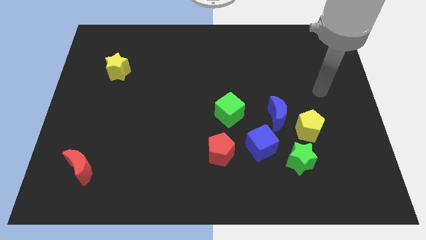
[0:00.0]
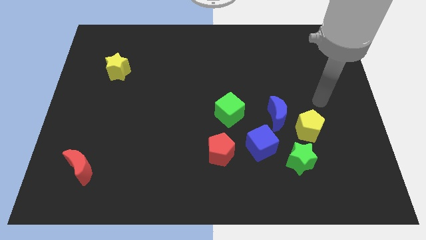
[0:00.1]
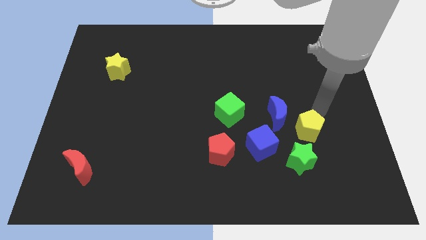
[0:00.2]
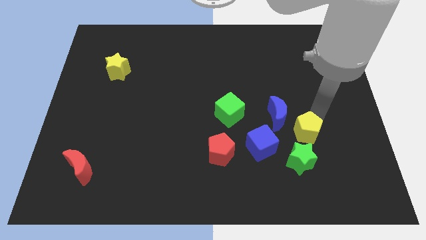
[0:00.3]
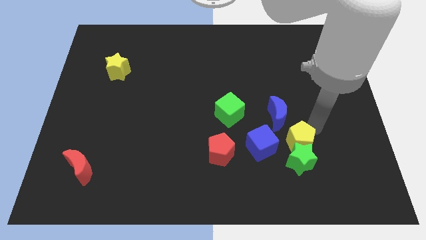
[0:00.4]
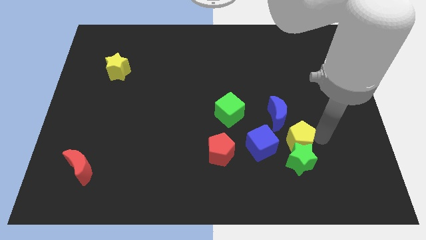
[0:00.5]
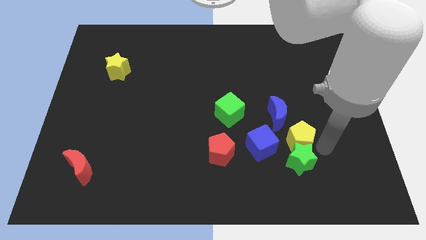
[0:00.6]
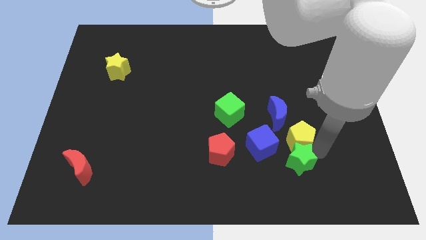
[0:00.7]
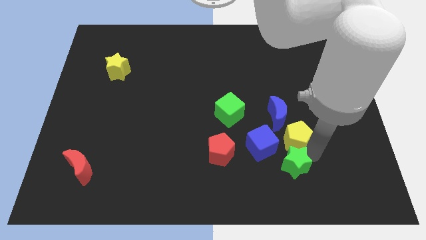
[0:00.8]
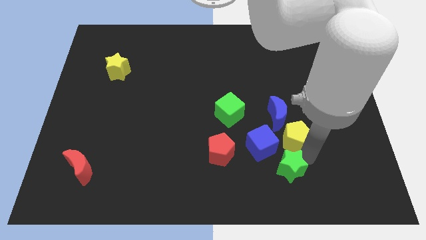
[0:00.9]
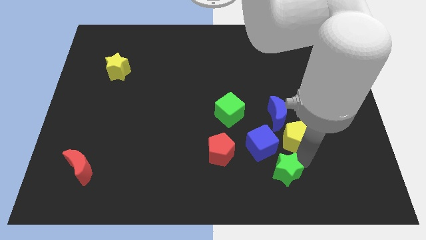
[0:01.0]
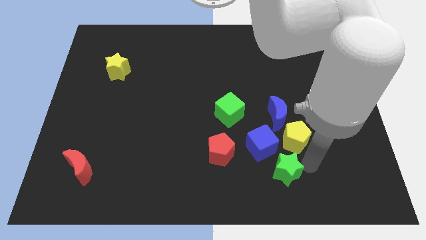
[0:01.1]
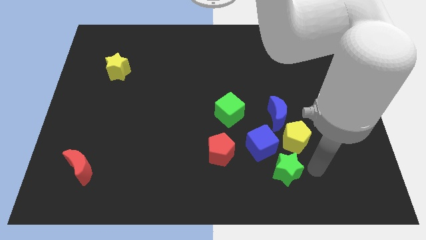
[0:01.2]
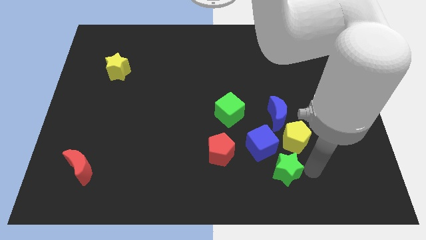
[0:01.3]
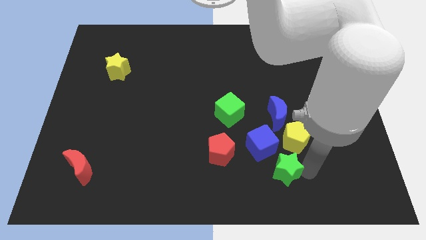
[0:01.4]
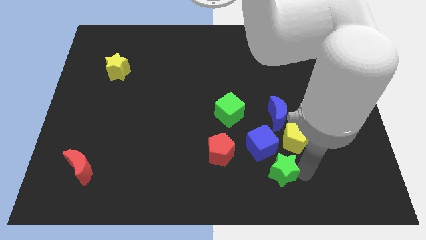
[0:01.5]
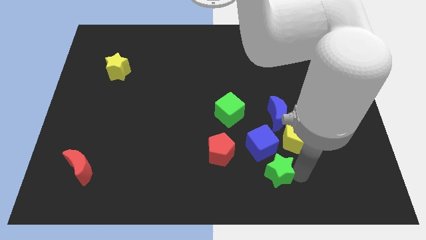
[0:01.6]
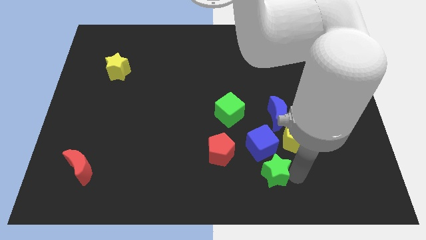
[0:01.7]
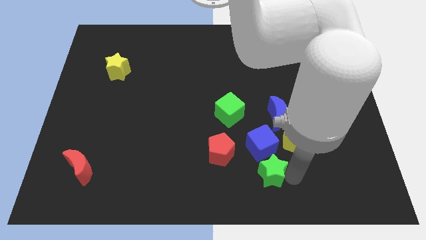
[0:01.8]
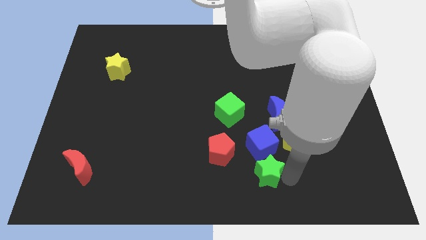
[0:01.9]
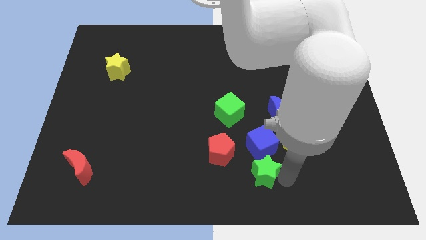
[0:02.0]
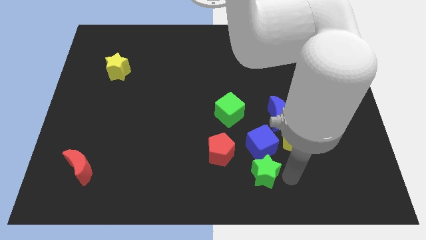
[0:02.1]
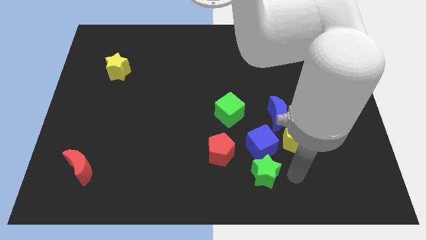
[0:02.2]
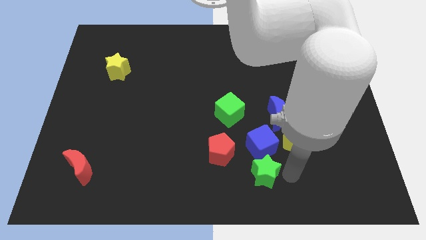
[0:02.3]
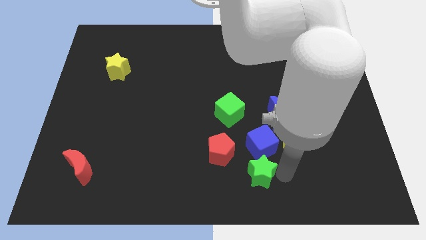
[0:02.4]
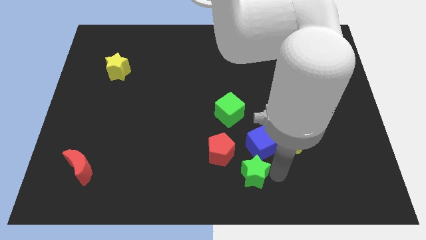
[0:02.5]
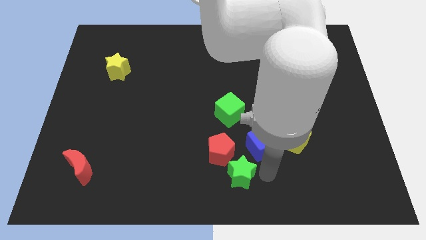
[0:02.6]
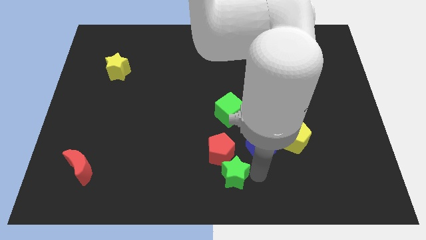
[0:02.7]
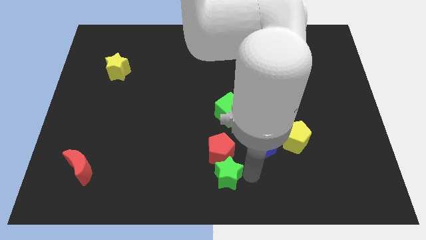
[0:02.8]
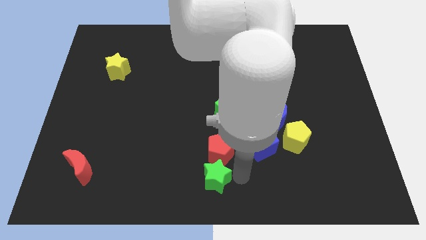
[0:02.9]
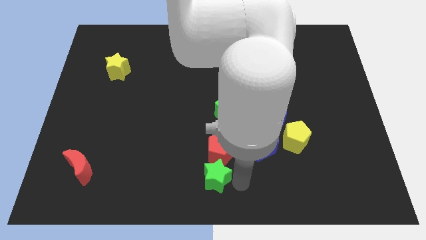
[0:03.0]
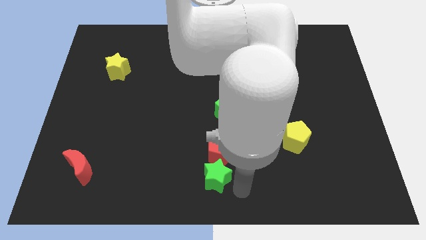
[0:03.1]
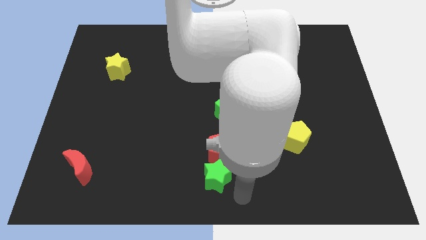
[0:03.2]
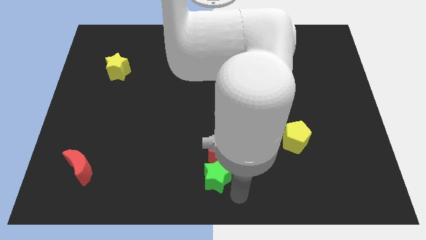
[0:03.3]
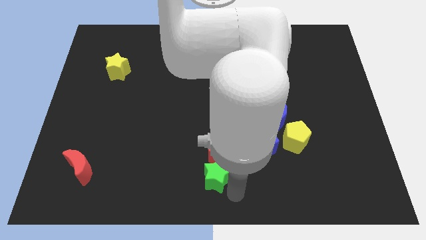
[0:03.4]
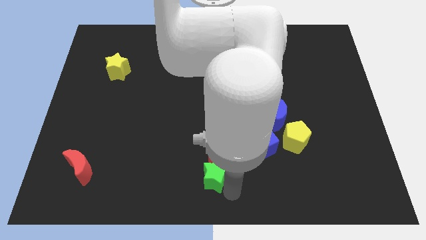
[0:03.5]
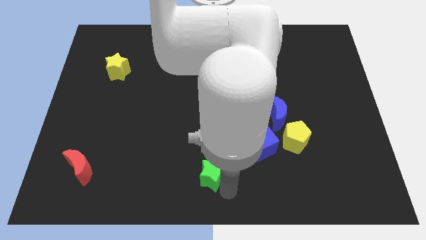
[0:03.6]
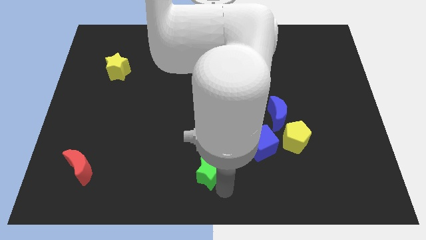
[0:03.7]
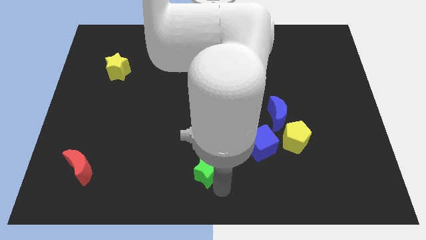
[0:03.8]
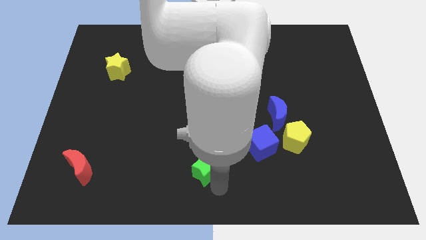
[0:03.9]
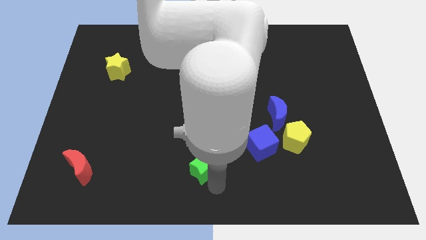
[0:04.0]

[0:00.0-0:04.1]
slide the green star left

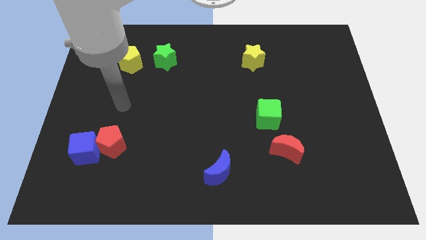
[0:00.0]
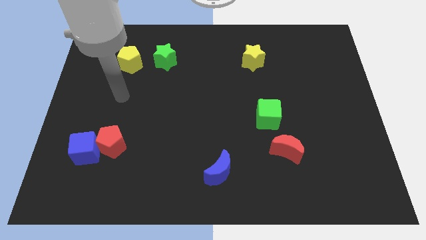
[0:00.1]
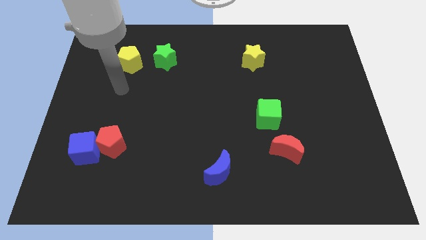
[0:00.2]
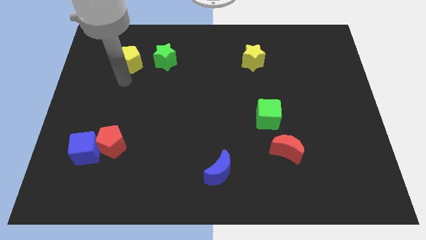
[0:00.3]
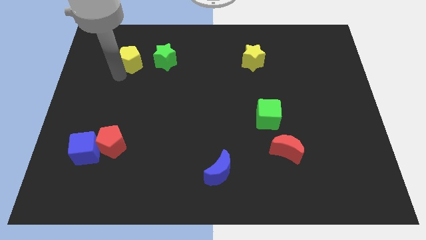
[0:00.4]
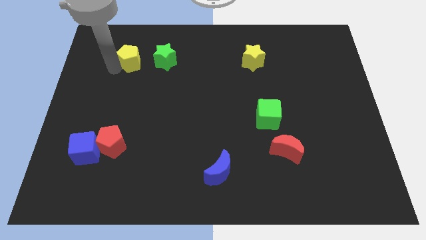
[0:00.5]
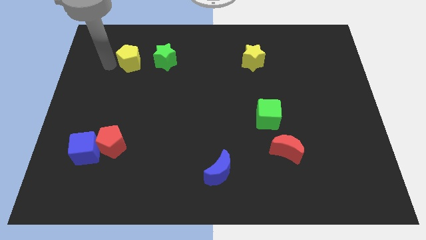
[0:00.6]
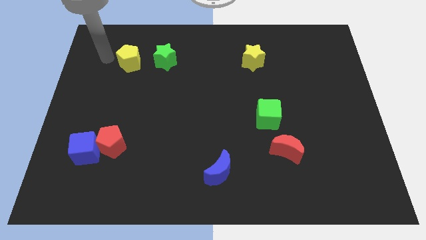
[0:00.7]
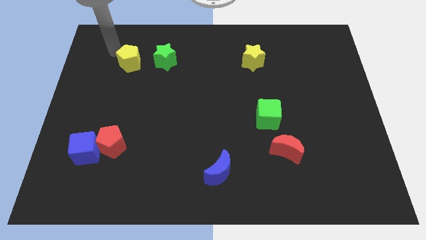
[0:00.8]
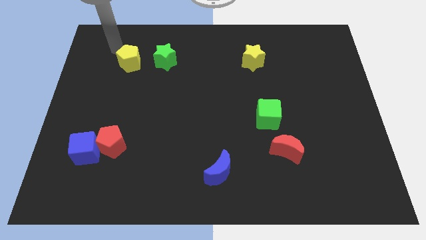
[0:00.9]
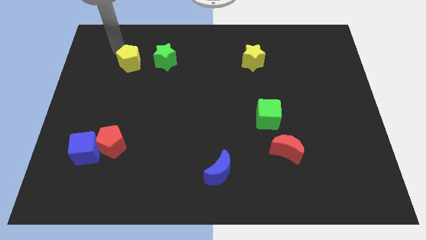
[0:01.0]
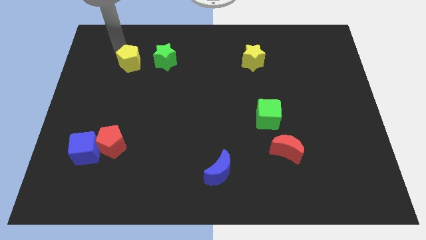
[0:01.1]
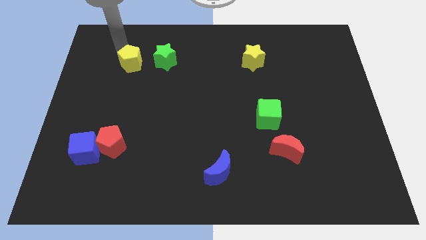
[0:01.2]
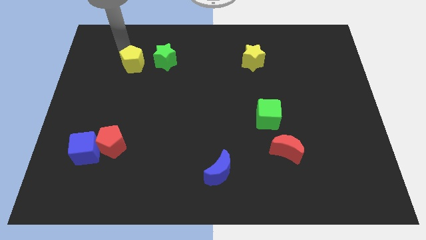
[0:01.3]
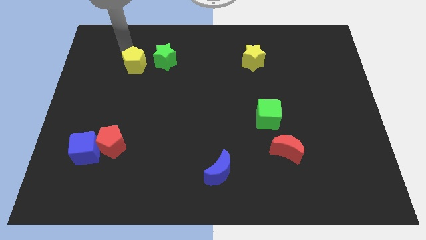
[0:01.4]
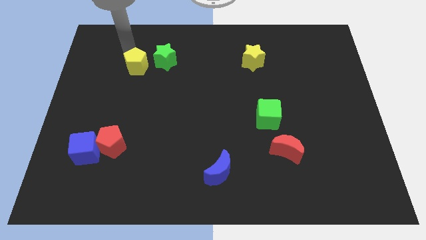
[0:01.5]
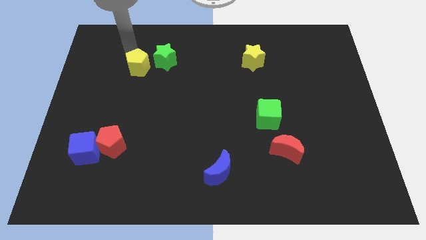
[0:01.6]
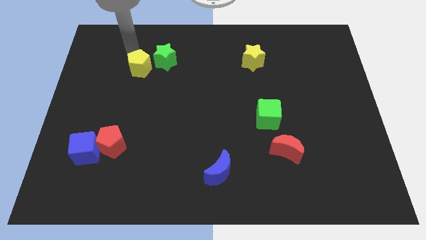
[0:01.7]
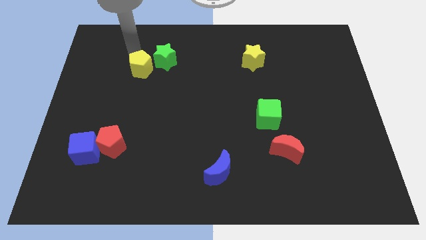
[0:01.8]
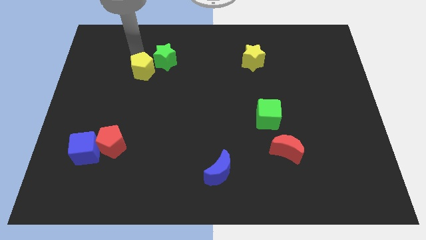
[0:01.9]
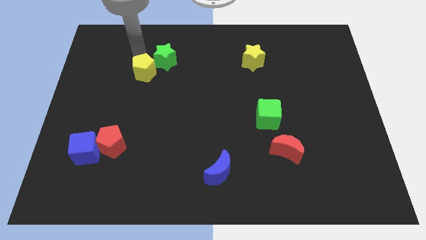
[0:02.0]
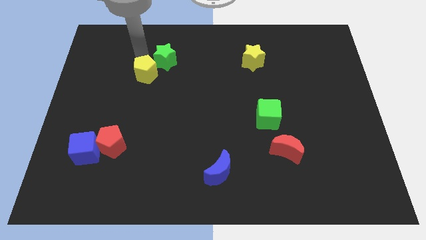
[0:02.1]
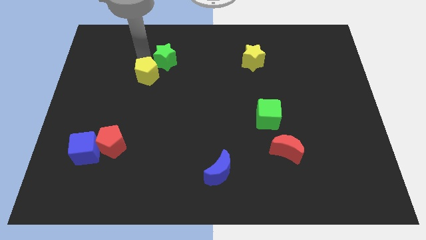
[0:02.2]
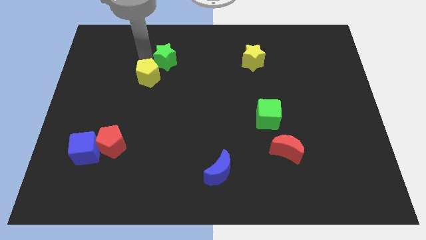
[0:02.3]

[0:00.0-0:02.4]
slightly slide the yellow pentagon down and to the right

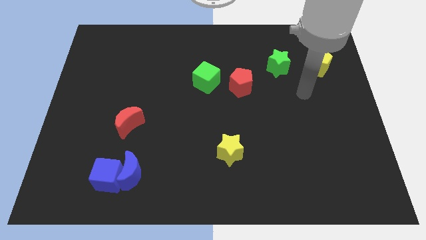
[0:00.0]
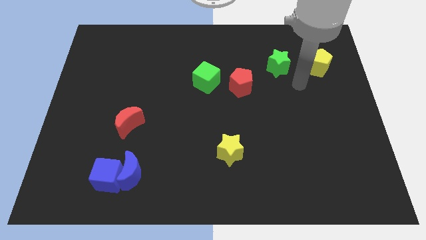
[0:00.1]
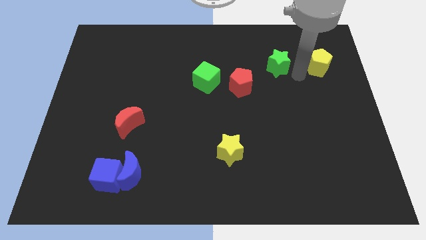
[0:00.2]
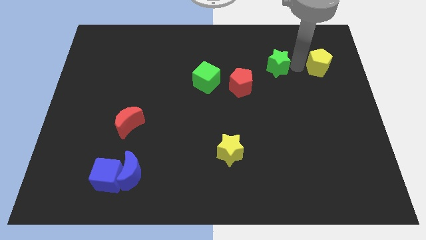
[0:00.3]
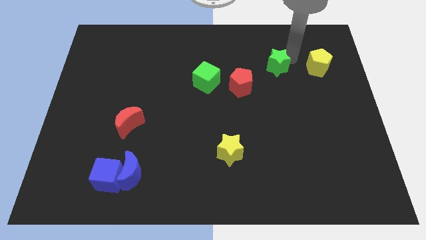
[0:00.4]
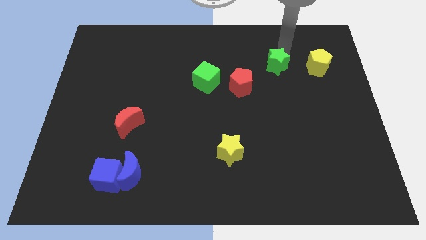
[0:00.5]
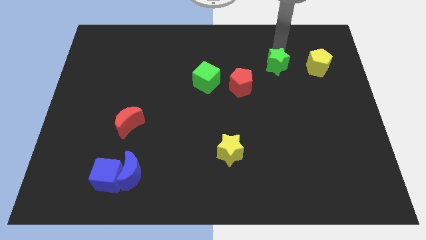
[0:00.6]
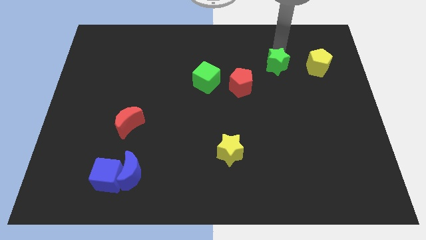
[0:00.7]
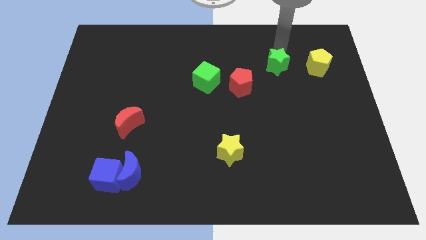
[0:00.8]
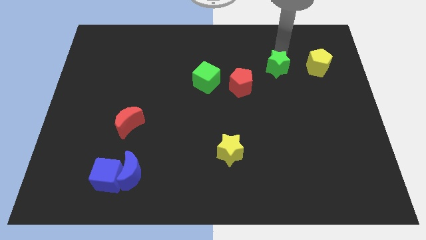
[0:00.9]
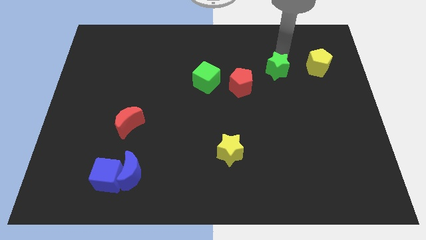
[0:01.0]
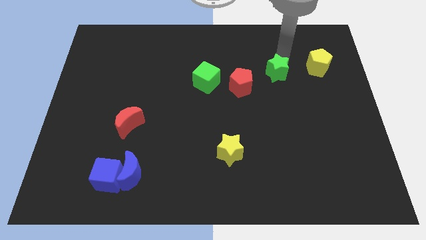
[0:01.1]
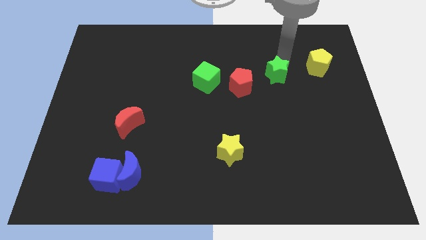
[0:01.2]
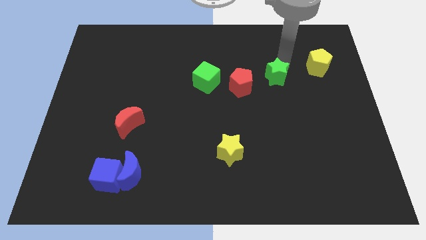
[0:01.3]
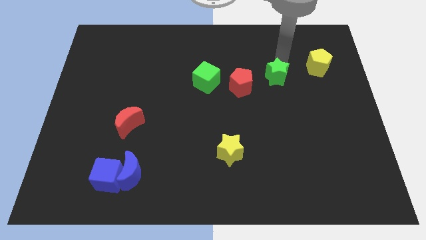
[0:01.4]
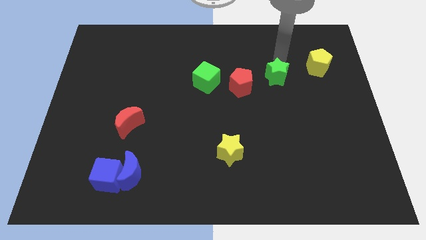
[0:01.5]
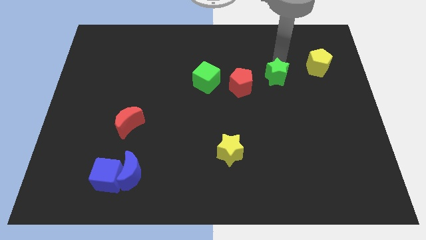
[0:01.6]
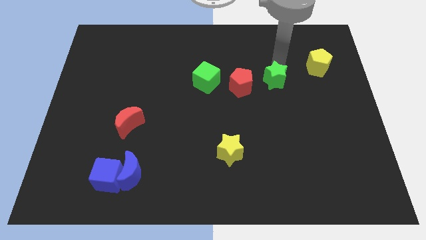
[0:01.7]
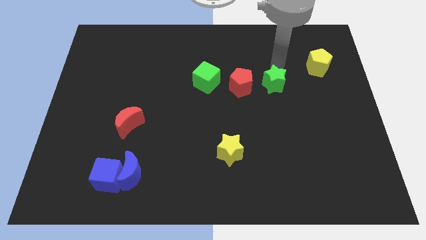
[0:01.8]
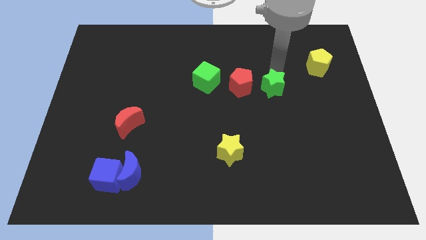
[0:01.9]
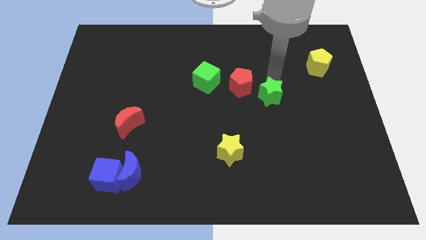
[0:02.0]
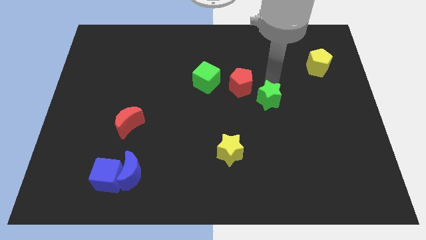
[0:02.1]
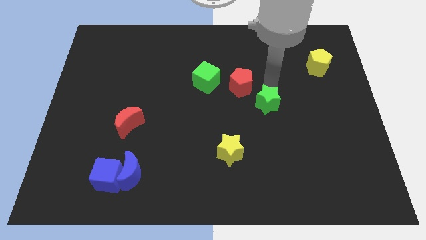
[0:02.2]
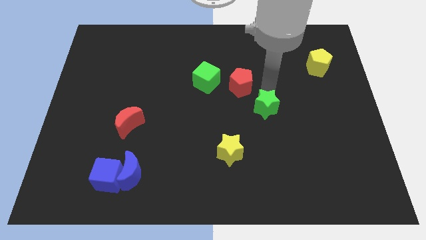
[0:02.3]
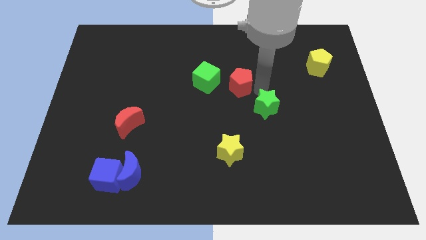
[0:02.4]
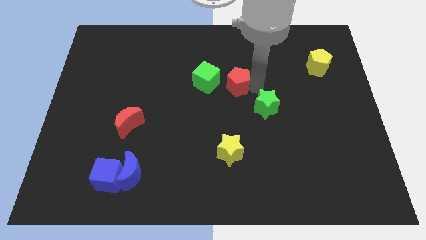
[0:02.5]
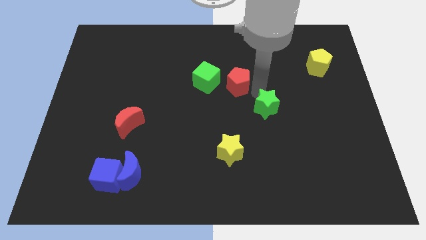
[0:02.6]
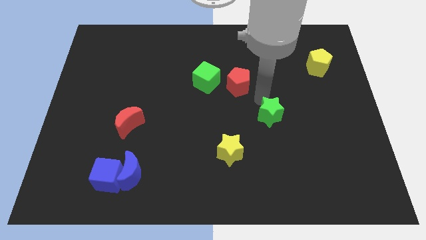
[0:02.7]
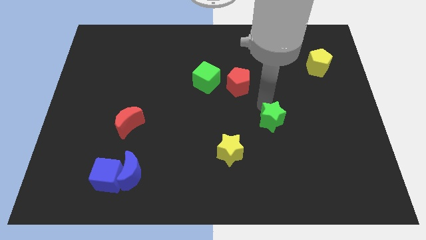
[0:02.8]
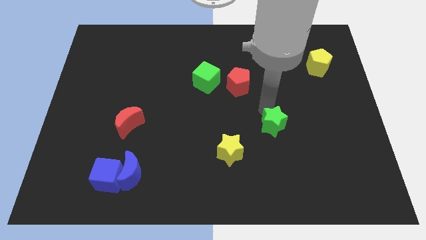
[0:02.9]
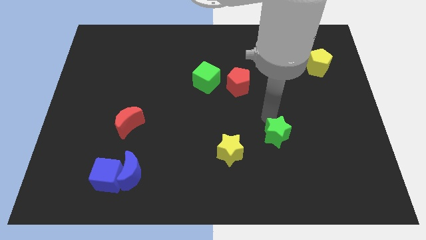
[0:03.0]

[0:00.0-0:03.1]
push the green star downwards
